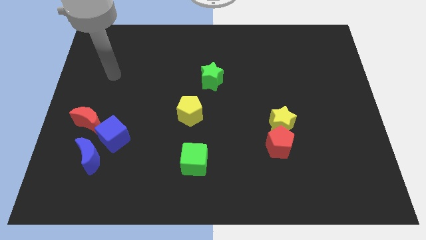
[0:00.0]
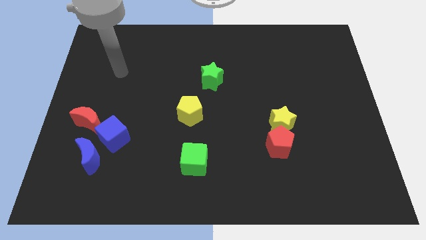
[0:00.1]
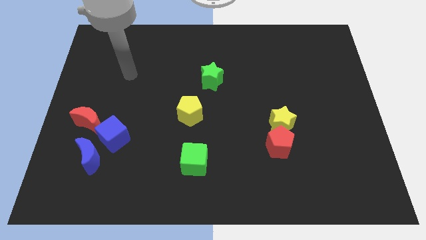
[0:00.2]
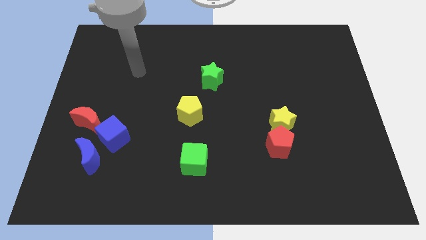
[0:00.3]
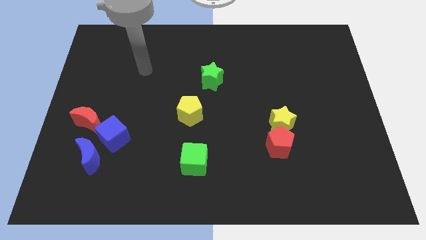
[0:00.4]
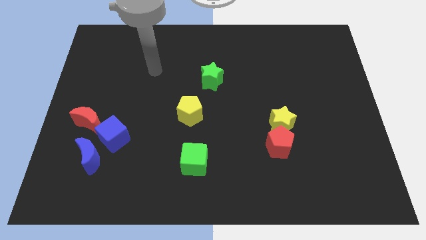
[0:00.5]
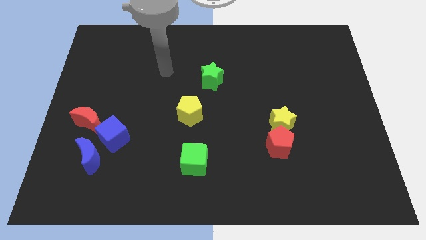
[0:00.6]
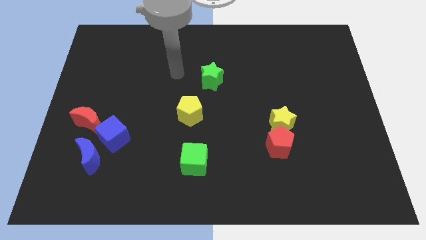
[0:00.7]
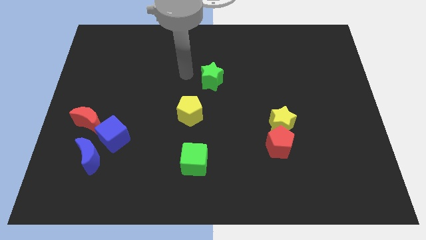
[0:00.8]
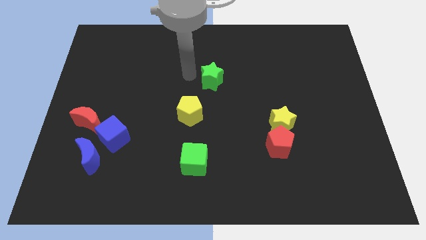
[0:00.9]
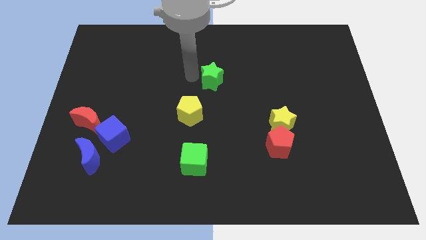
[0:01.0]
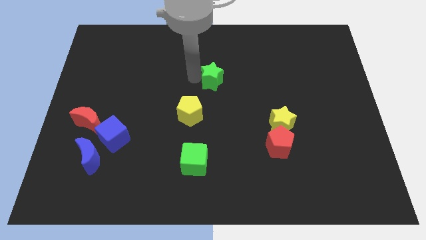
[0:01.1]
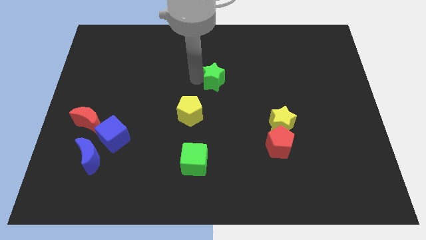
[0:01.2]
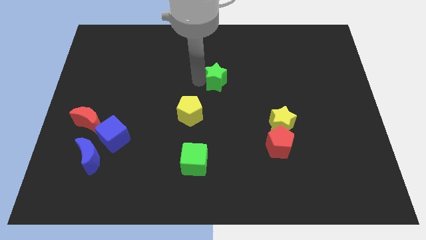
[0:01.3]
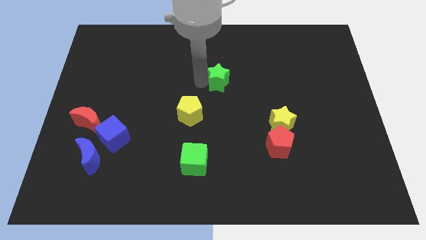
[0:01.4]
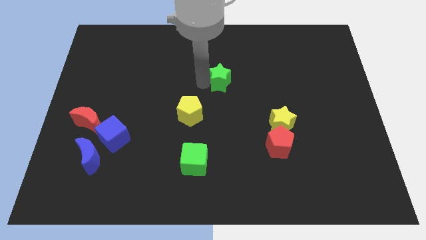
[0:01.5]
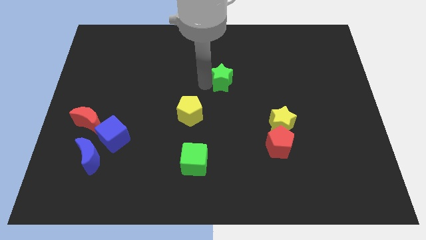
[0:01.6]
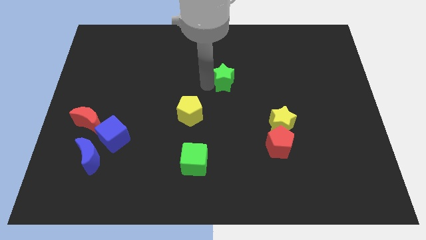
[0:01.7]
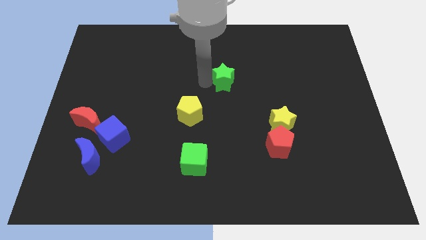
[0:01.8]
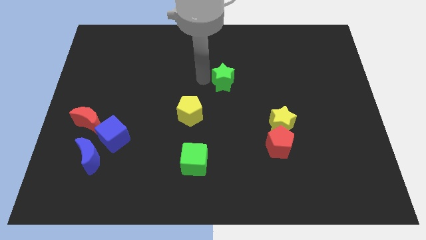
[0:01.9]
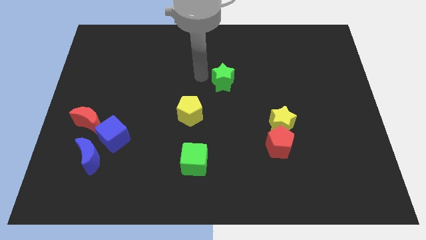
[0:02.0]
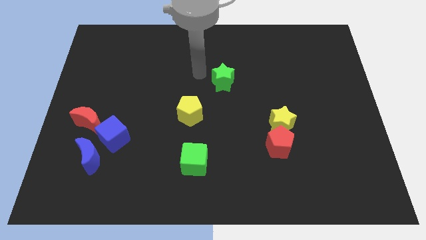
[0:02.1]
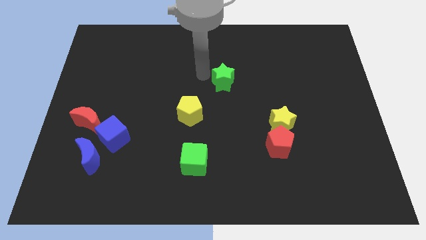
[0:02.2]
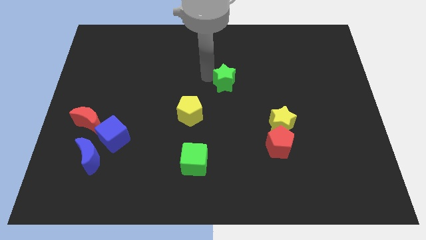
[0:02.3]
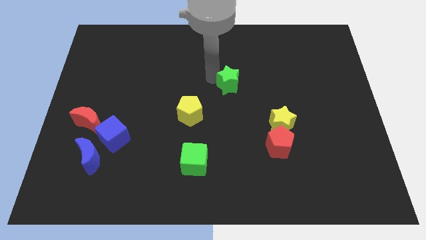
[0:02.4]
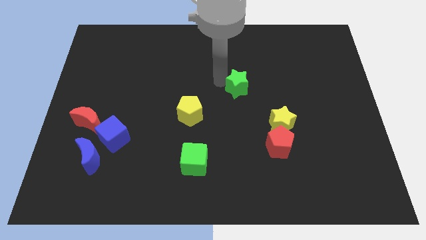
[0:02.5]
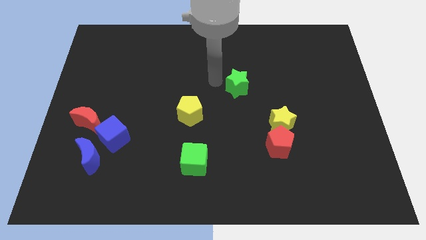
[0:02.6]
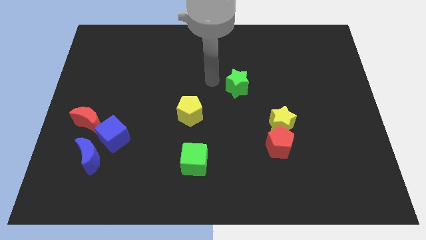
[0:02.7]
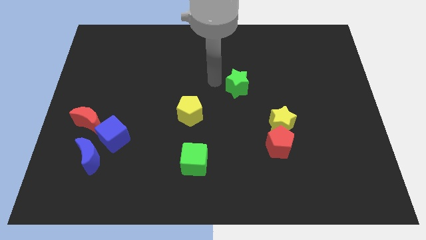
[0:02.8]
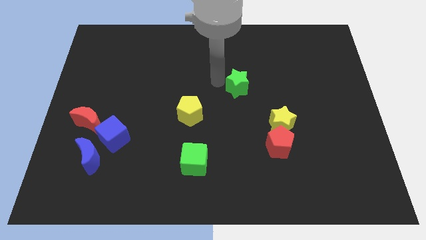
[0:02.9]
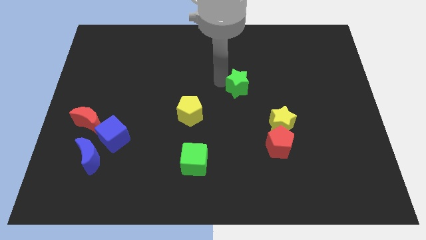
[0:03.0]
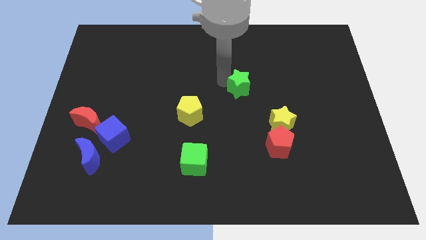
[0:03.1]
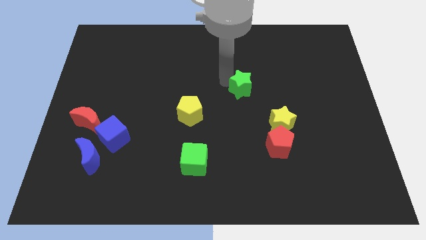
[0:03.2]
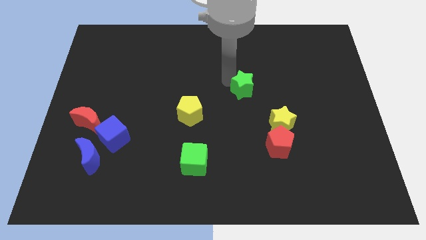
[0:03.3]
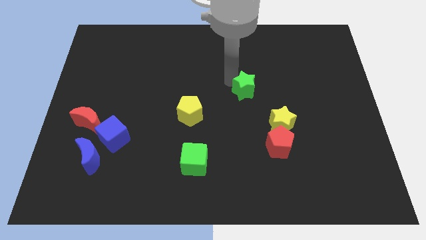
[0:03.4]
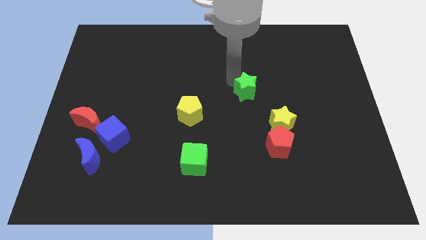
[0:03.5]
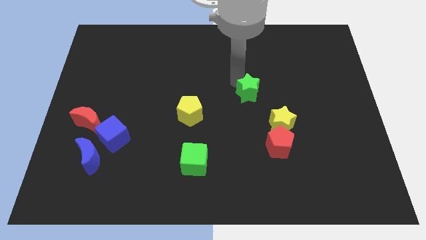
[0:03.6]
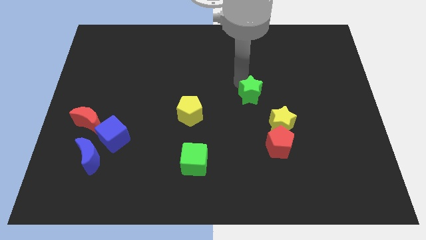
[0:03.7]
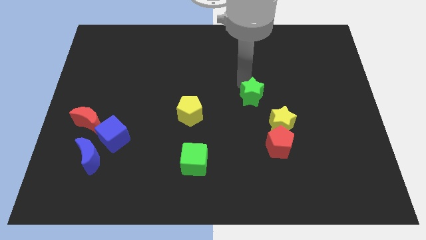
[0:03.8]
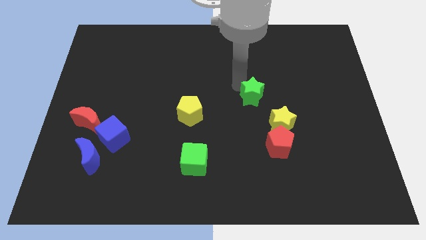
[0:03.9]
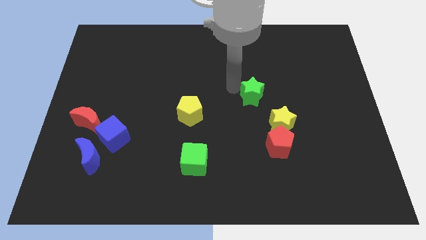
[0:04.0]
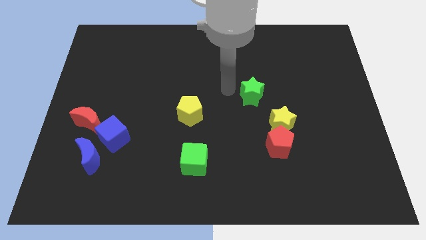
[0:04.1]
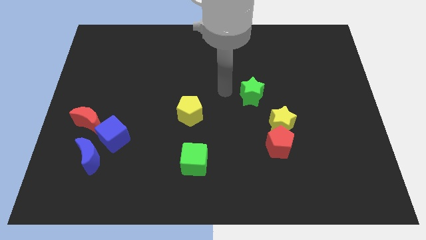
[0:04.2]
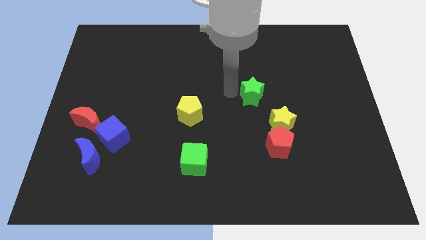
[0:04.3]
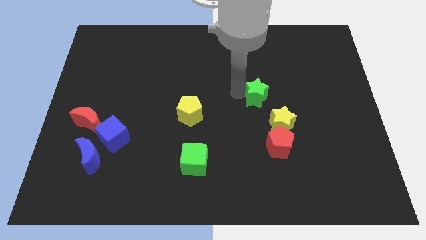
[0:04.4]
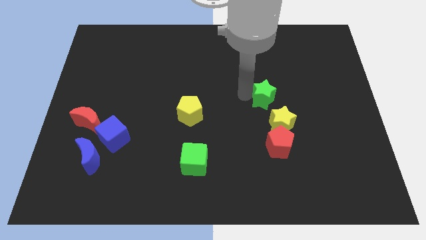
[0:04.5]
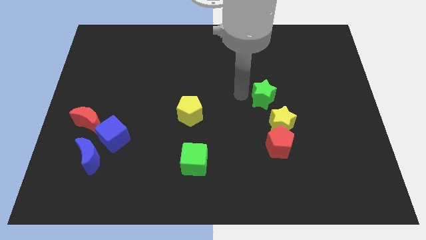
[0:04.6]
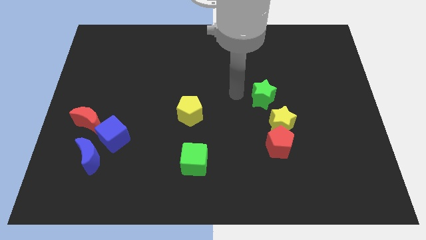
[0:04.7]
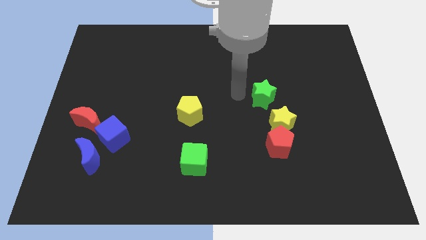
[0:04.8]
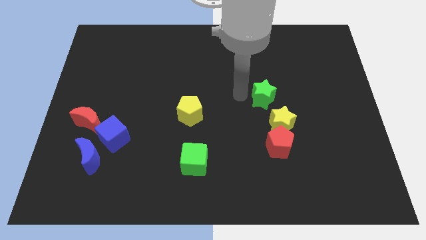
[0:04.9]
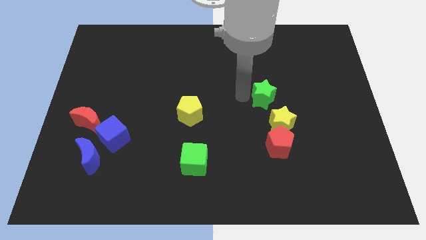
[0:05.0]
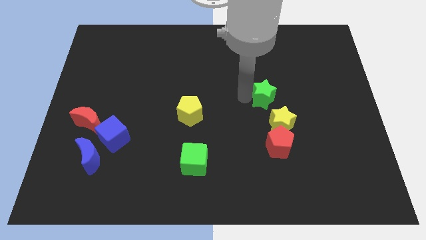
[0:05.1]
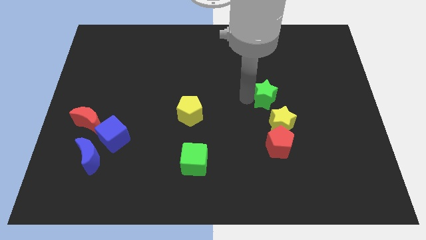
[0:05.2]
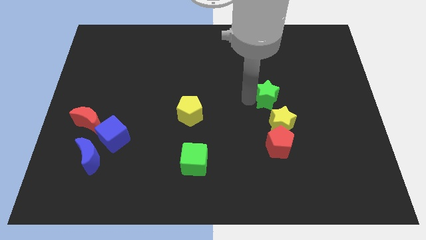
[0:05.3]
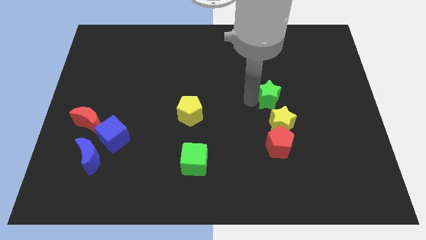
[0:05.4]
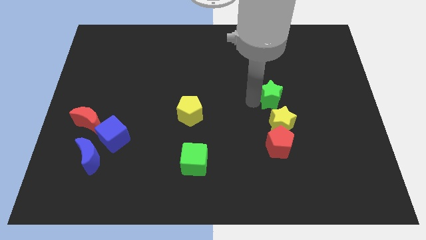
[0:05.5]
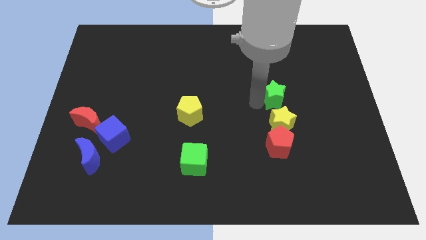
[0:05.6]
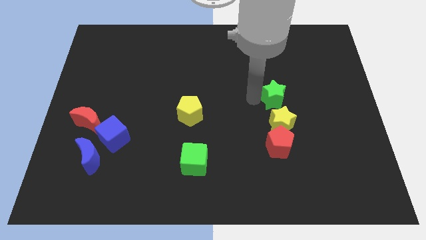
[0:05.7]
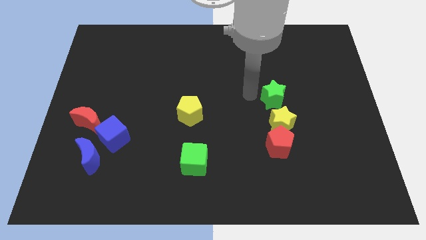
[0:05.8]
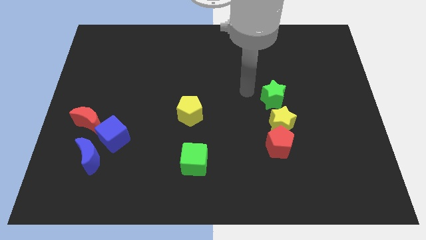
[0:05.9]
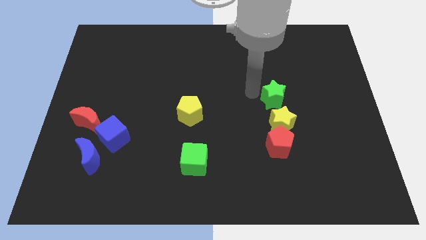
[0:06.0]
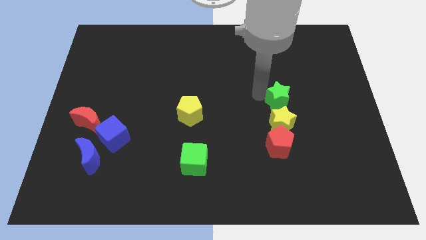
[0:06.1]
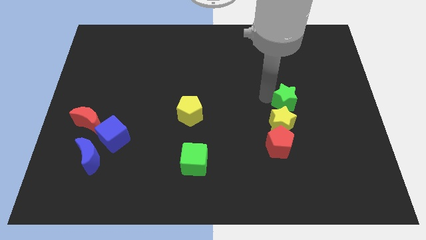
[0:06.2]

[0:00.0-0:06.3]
slide the green star diagonally up and to the right of the yellow star

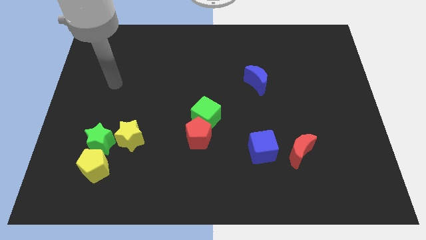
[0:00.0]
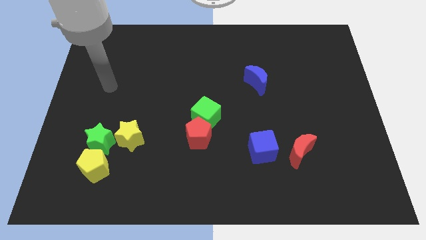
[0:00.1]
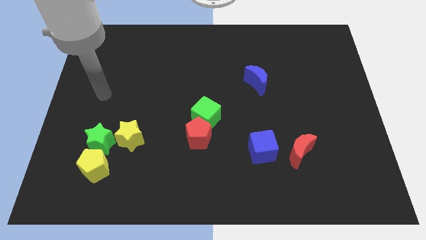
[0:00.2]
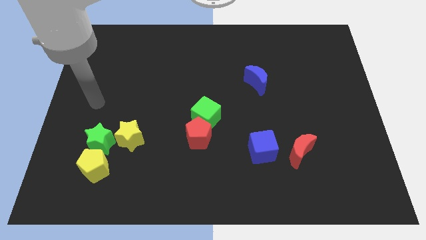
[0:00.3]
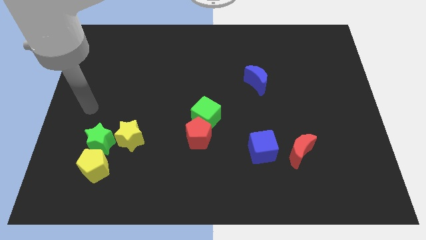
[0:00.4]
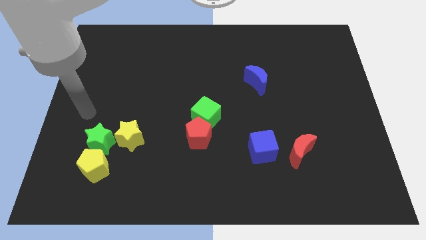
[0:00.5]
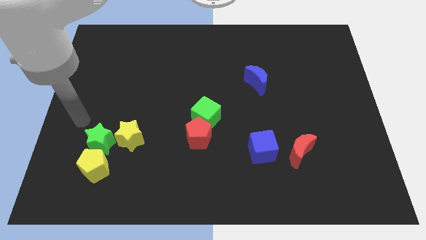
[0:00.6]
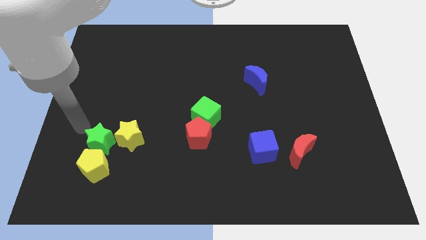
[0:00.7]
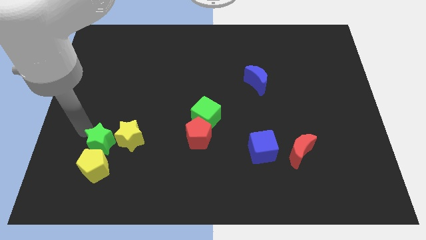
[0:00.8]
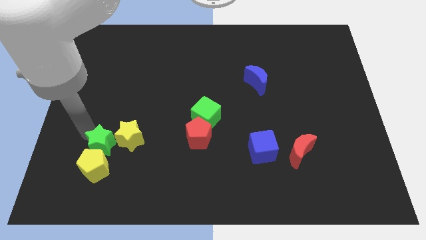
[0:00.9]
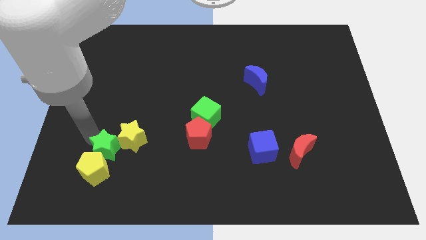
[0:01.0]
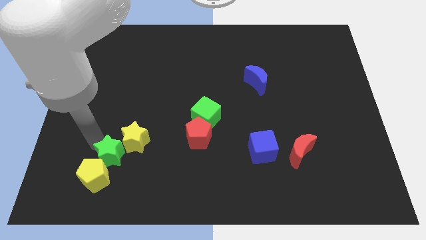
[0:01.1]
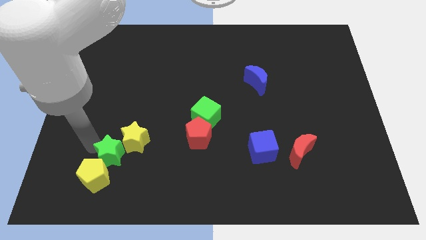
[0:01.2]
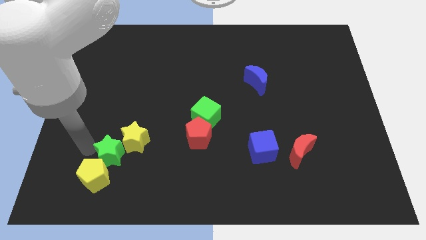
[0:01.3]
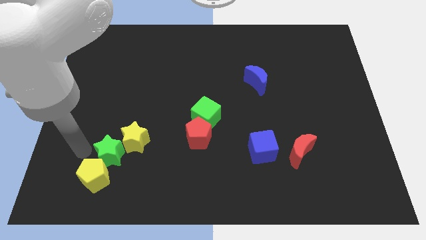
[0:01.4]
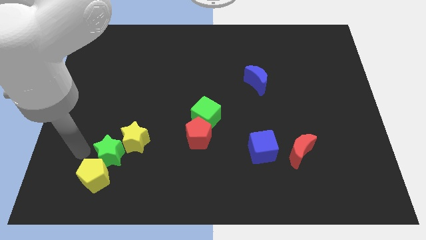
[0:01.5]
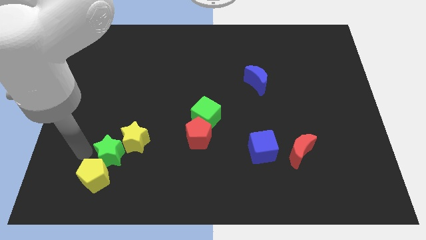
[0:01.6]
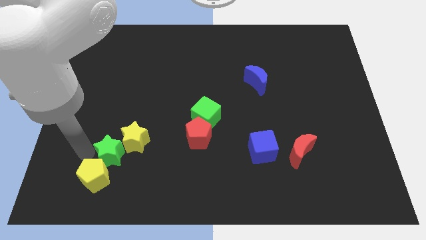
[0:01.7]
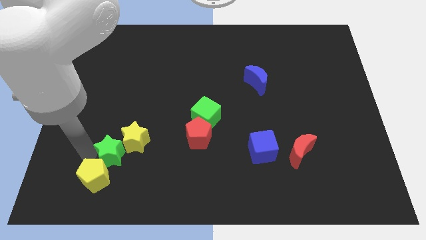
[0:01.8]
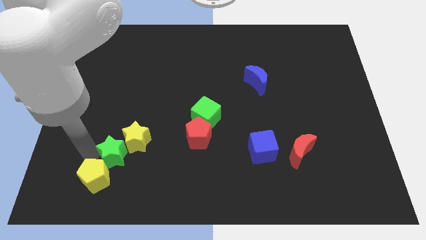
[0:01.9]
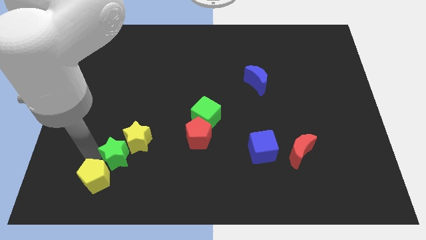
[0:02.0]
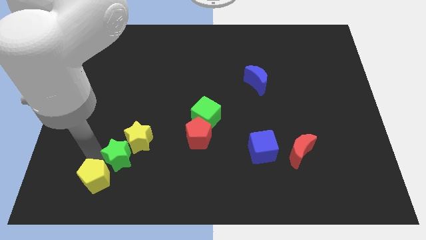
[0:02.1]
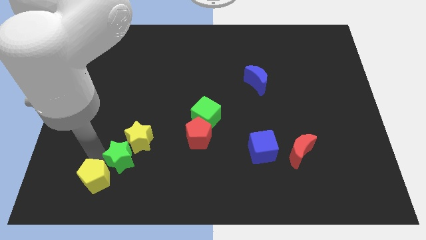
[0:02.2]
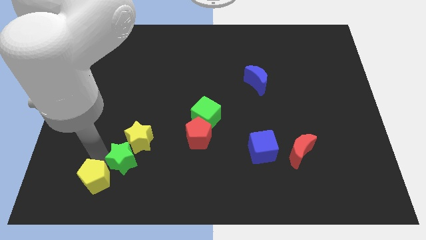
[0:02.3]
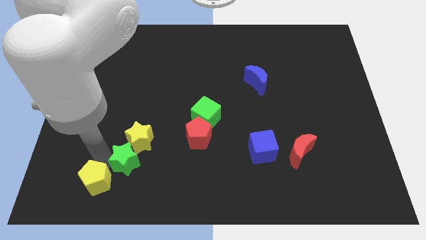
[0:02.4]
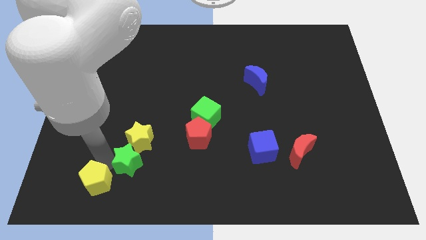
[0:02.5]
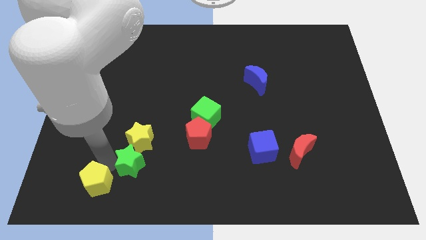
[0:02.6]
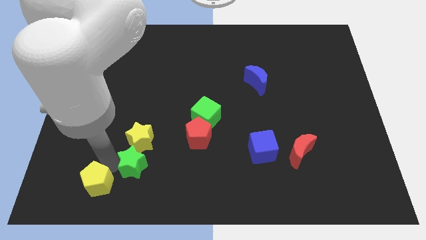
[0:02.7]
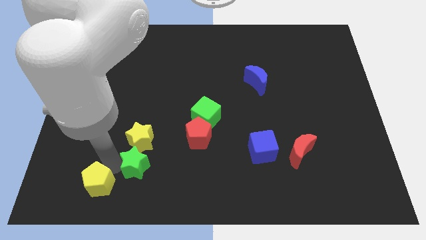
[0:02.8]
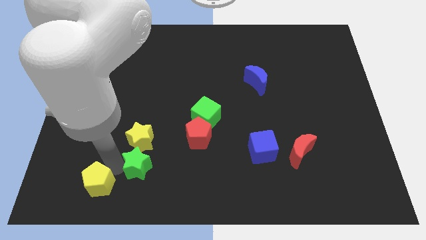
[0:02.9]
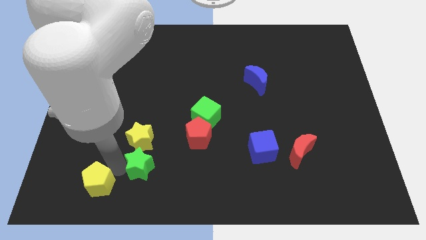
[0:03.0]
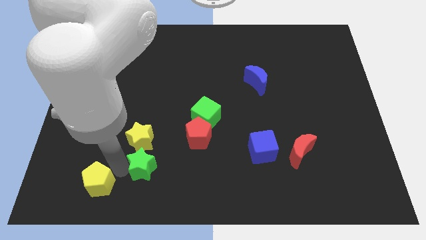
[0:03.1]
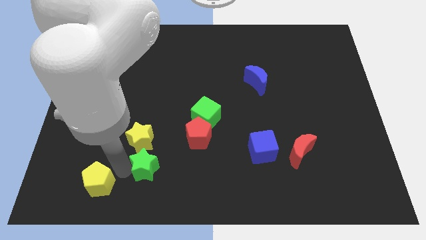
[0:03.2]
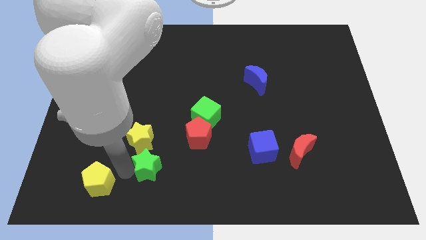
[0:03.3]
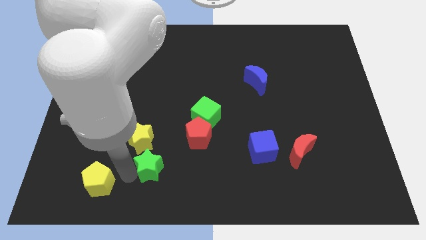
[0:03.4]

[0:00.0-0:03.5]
put the green star diagonally down and to the left of the red pentagon
